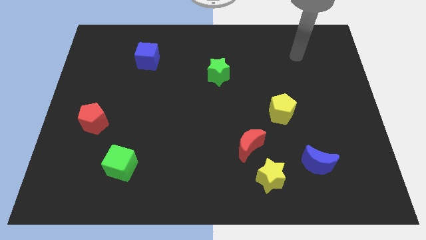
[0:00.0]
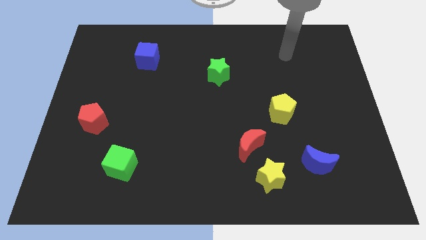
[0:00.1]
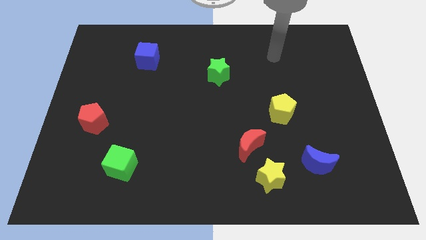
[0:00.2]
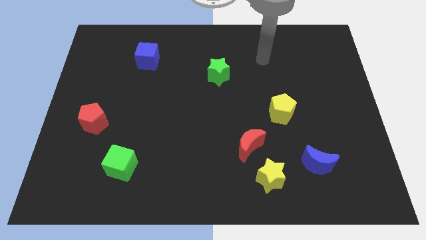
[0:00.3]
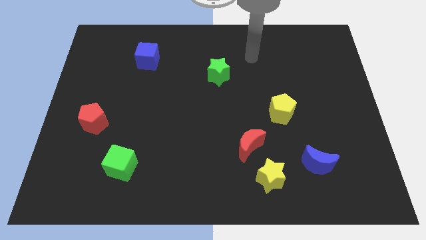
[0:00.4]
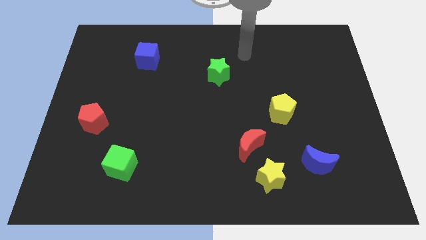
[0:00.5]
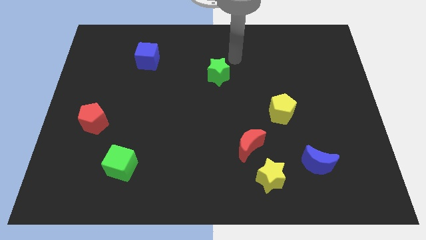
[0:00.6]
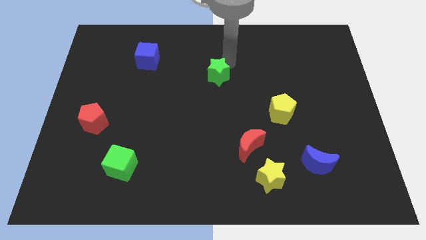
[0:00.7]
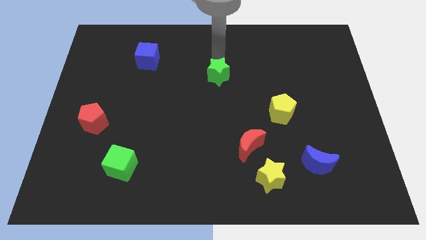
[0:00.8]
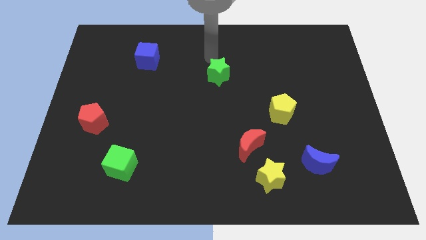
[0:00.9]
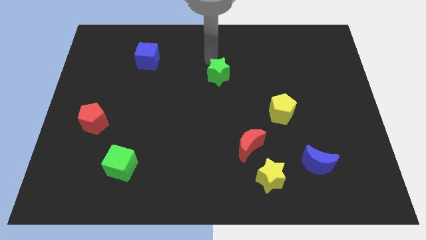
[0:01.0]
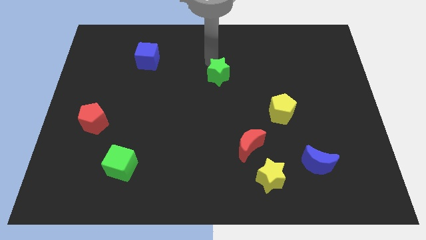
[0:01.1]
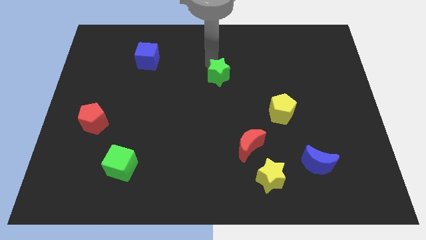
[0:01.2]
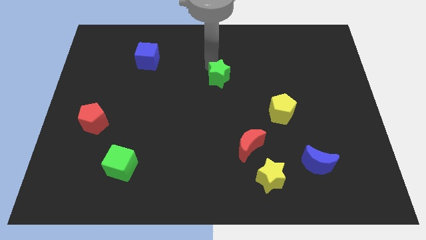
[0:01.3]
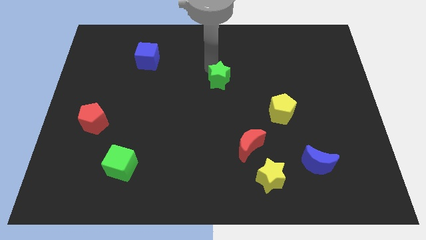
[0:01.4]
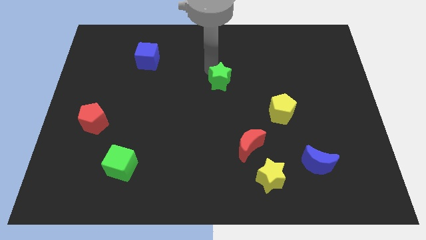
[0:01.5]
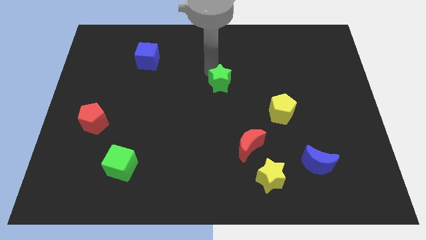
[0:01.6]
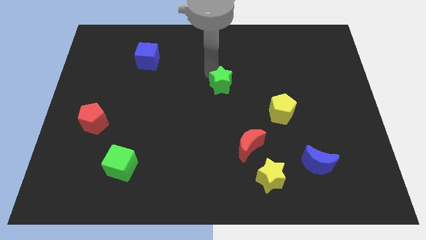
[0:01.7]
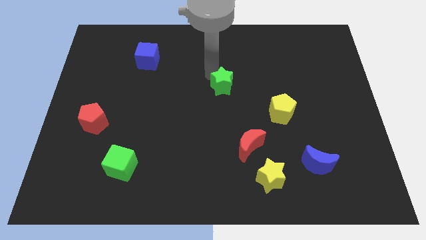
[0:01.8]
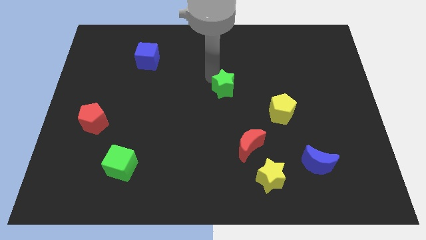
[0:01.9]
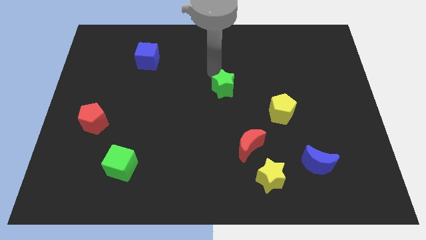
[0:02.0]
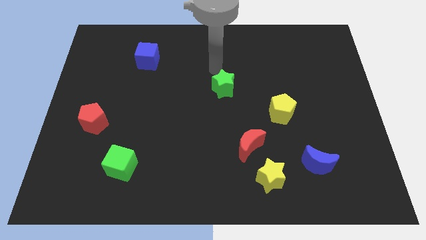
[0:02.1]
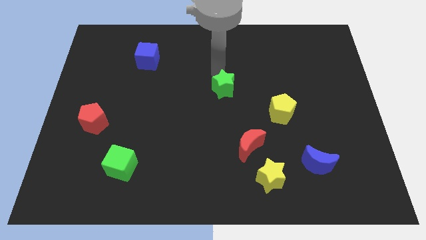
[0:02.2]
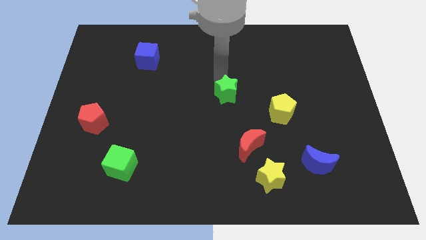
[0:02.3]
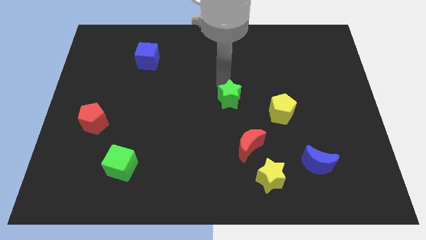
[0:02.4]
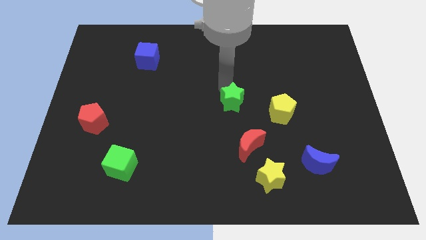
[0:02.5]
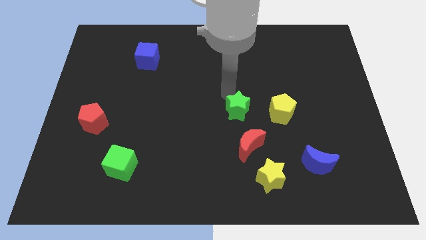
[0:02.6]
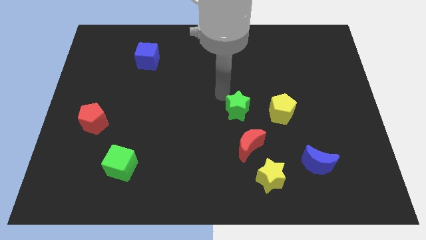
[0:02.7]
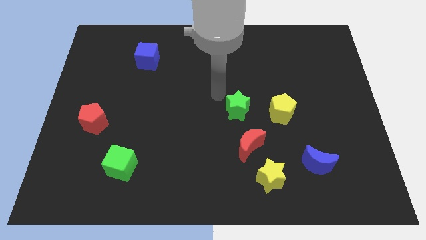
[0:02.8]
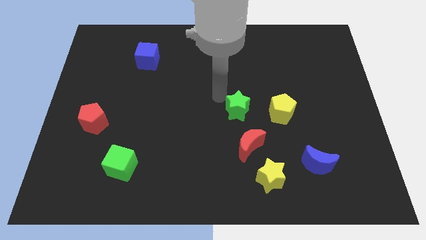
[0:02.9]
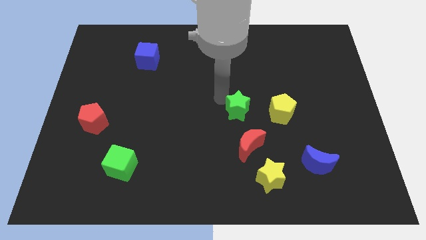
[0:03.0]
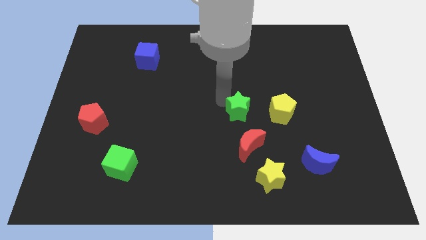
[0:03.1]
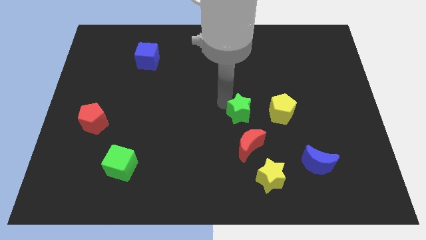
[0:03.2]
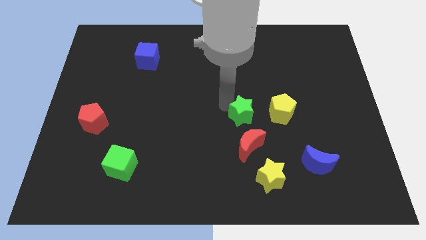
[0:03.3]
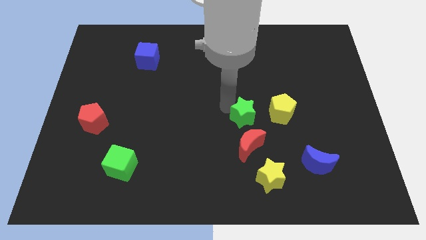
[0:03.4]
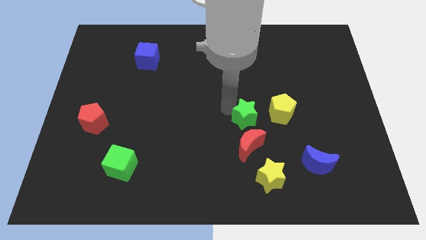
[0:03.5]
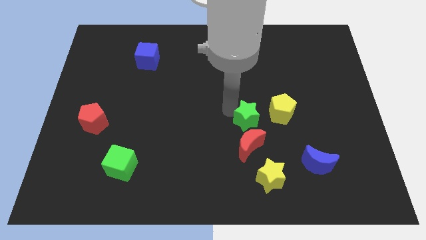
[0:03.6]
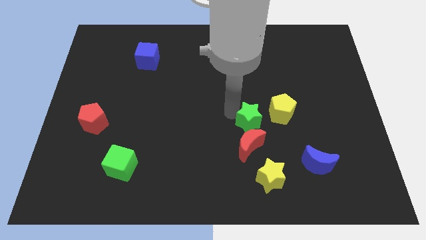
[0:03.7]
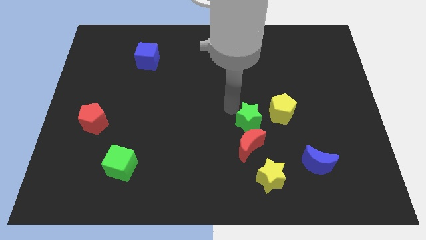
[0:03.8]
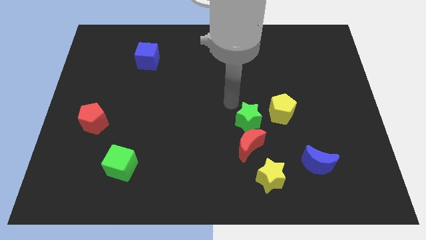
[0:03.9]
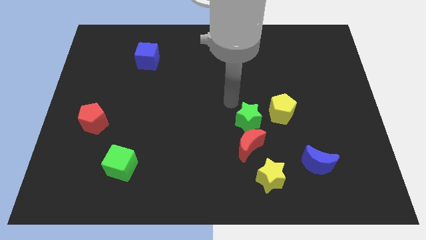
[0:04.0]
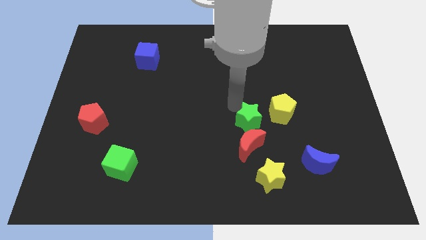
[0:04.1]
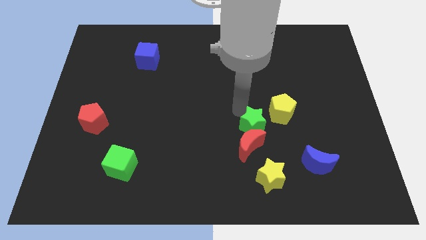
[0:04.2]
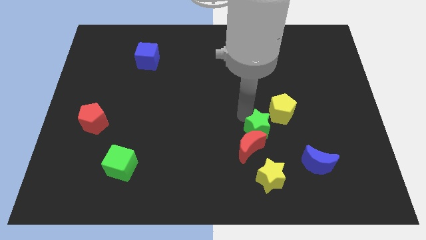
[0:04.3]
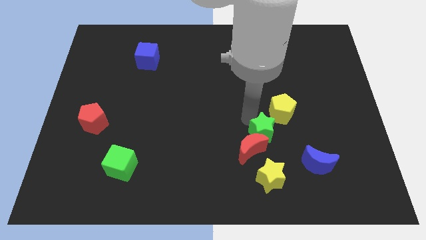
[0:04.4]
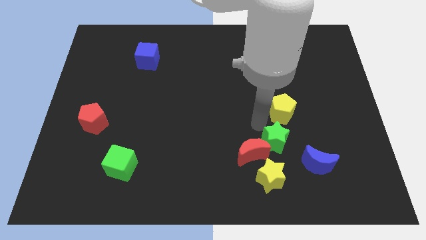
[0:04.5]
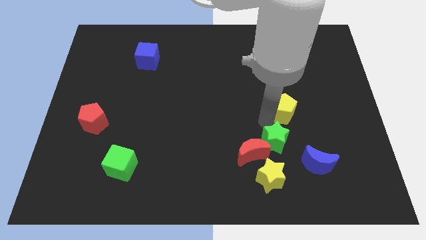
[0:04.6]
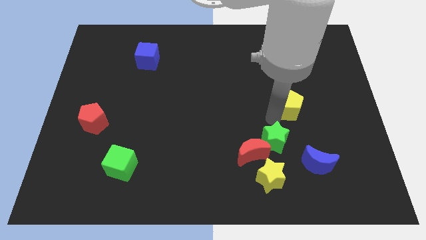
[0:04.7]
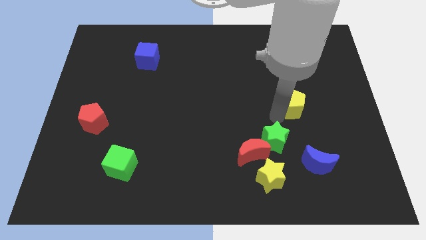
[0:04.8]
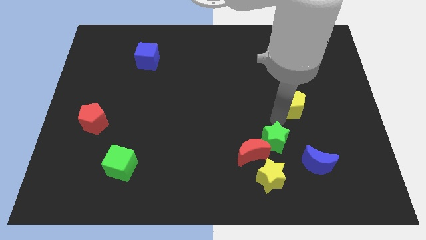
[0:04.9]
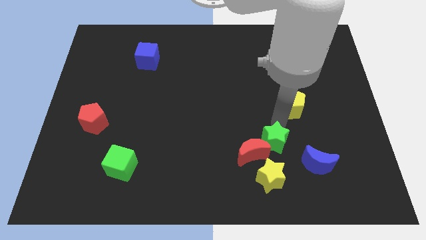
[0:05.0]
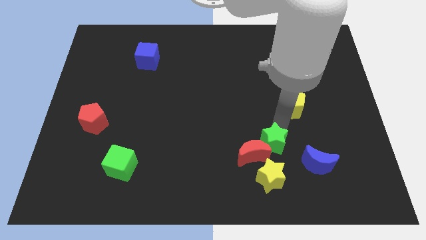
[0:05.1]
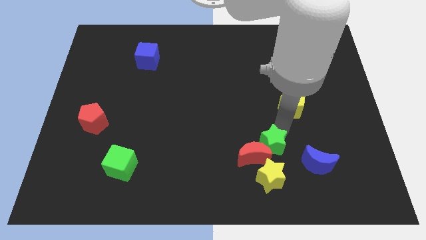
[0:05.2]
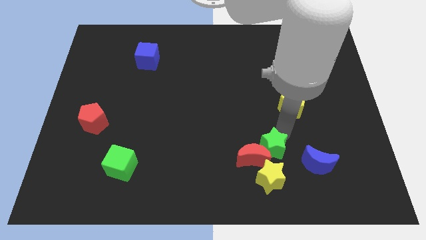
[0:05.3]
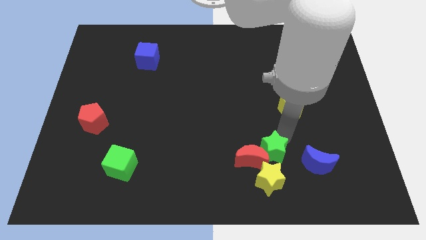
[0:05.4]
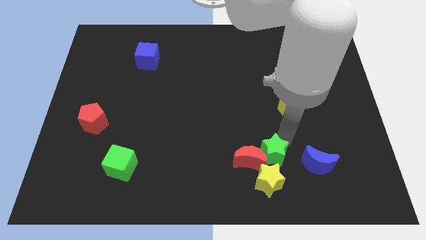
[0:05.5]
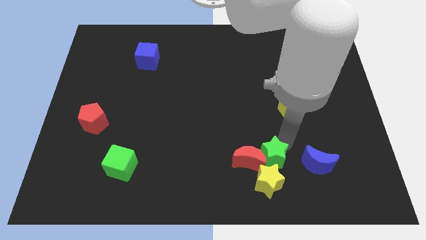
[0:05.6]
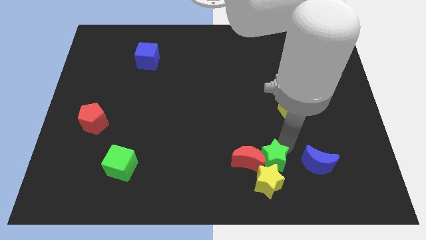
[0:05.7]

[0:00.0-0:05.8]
slide the green star next to the yellow star

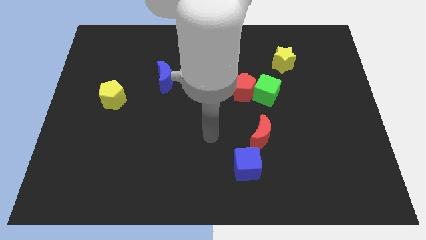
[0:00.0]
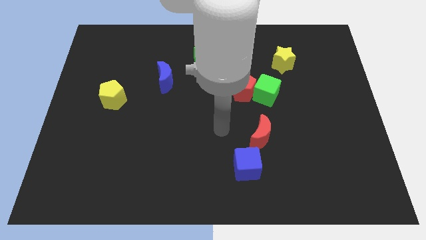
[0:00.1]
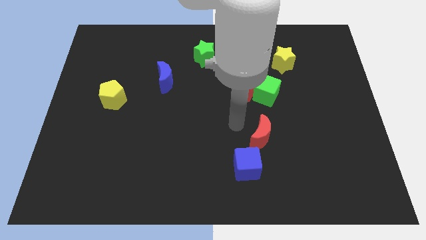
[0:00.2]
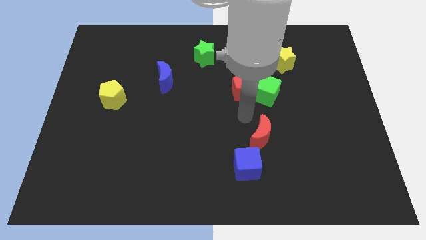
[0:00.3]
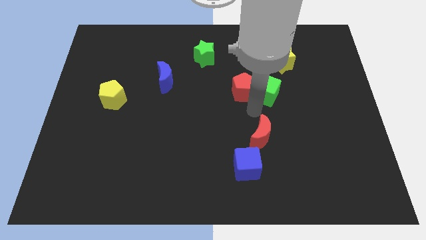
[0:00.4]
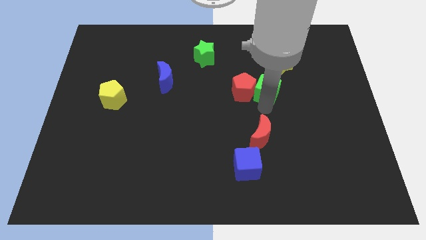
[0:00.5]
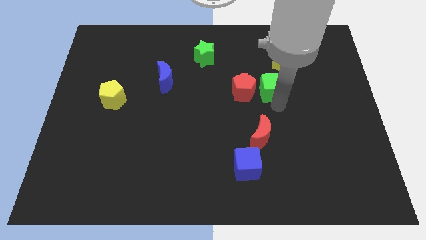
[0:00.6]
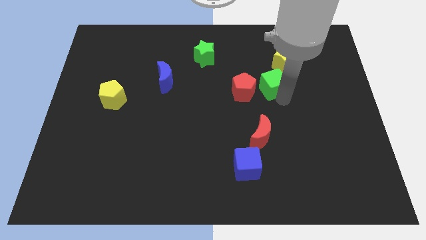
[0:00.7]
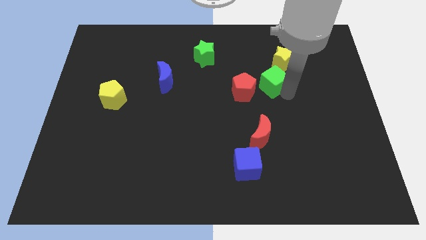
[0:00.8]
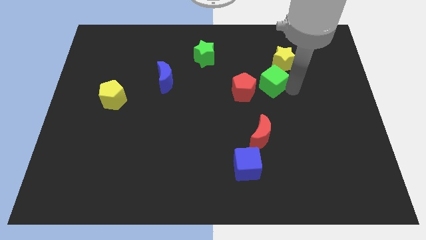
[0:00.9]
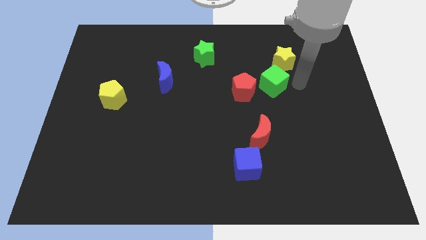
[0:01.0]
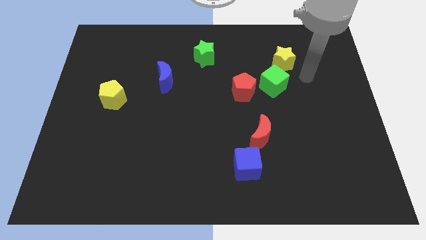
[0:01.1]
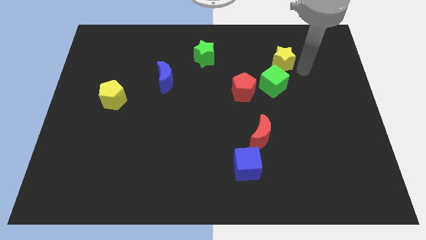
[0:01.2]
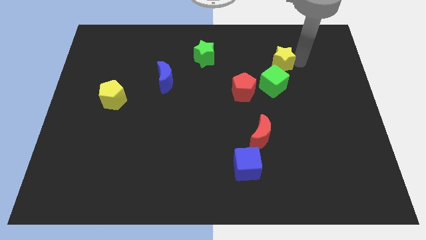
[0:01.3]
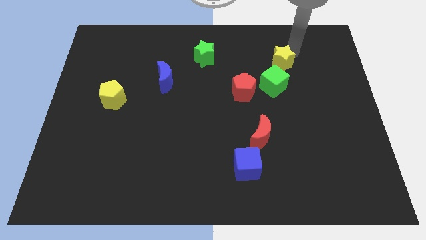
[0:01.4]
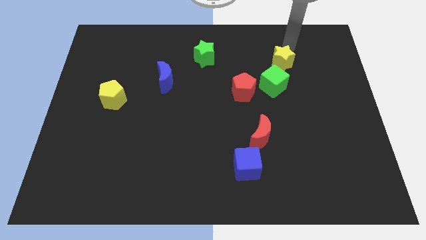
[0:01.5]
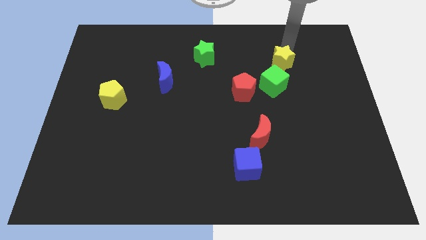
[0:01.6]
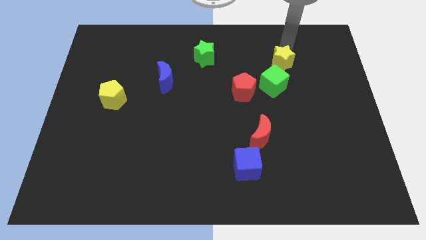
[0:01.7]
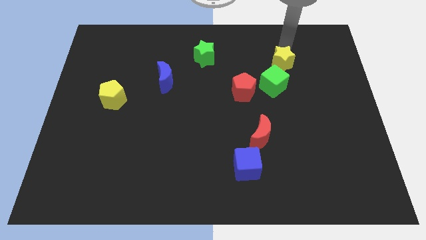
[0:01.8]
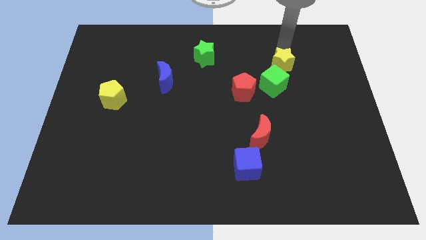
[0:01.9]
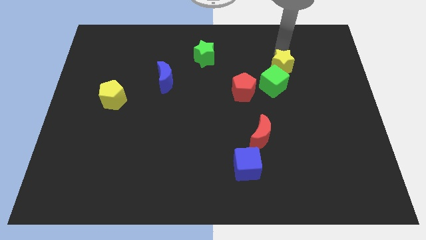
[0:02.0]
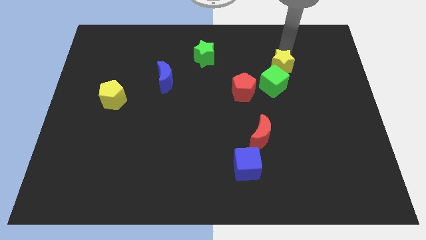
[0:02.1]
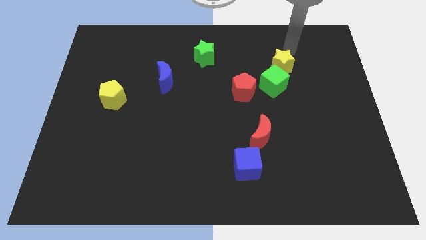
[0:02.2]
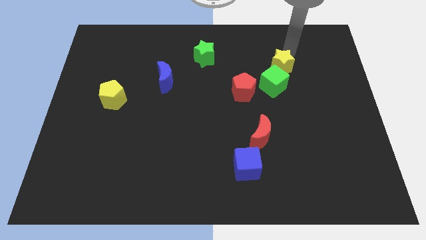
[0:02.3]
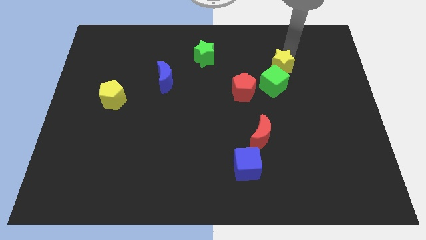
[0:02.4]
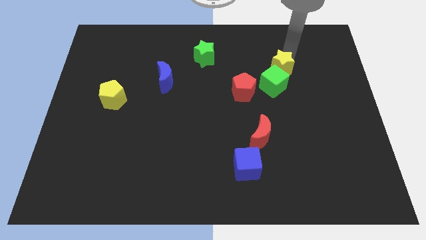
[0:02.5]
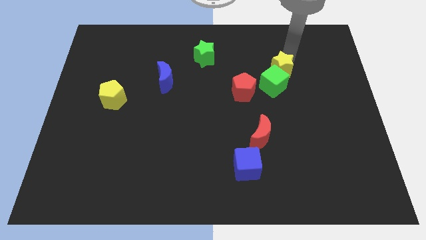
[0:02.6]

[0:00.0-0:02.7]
push the yellow star to the green cube
